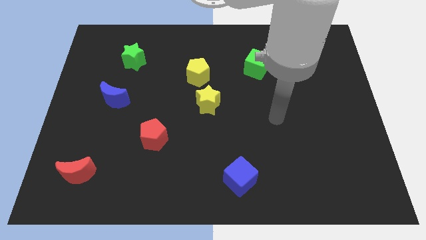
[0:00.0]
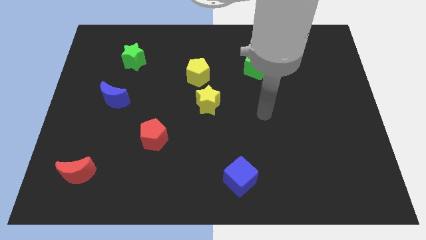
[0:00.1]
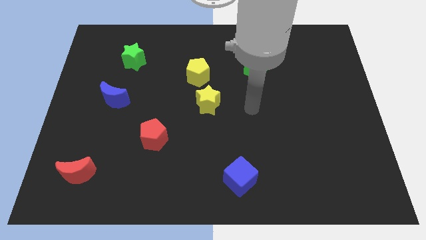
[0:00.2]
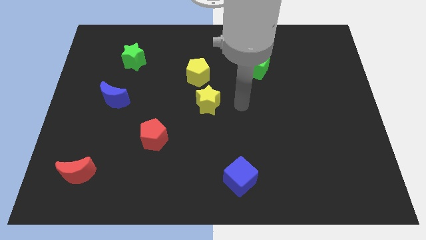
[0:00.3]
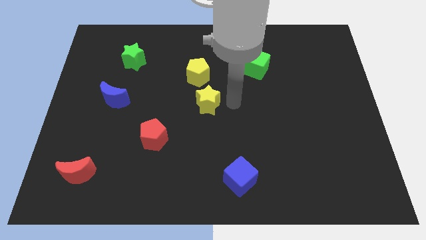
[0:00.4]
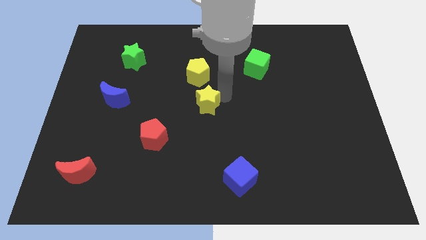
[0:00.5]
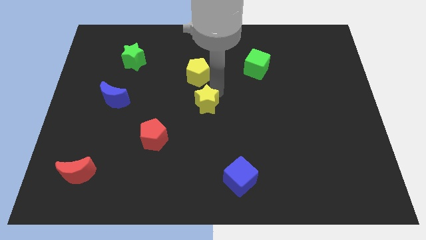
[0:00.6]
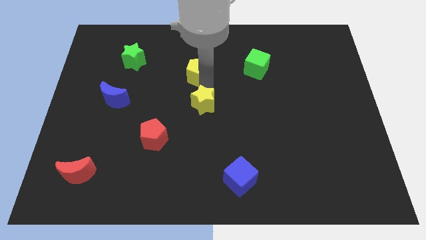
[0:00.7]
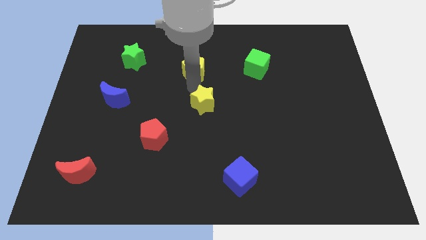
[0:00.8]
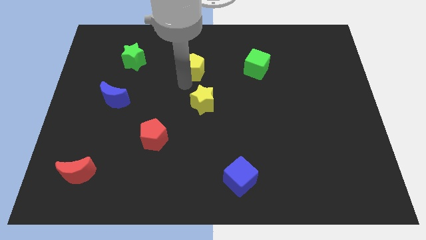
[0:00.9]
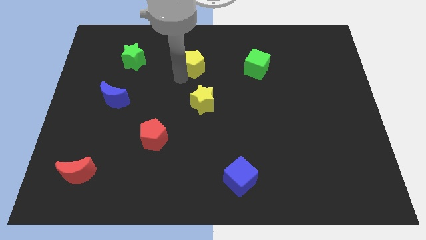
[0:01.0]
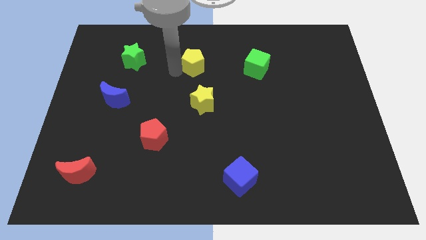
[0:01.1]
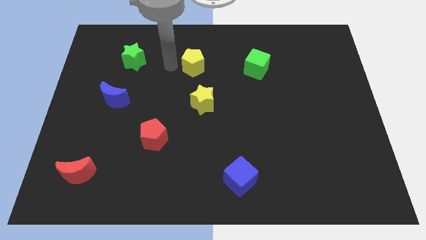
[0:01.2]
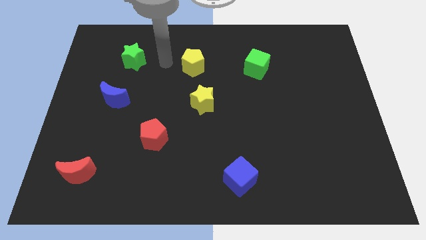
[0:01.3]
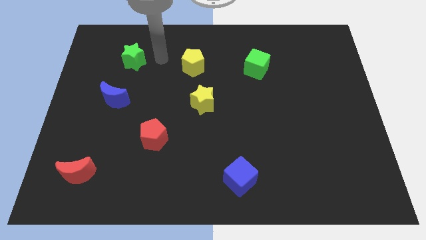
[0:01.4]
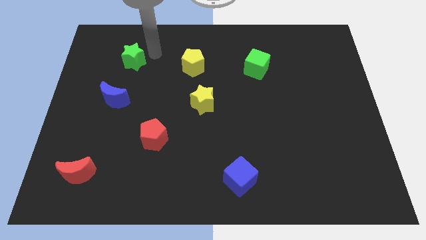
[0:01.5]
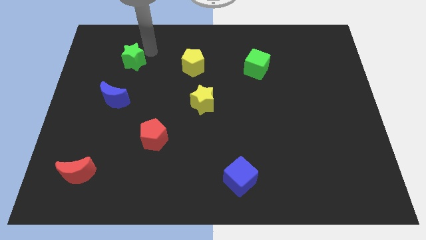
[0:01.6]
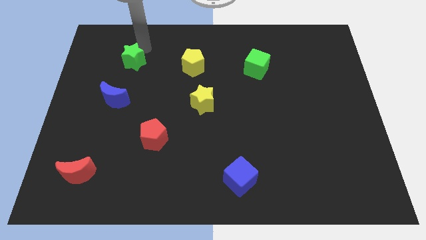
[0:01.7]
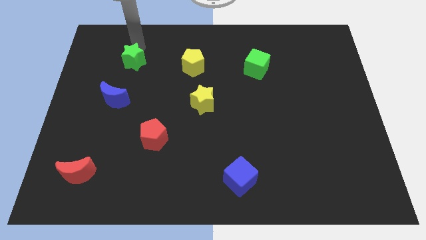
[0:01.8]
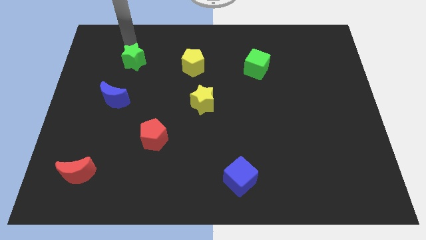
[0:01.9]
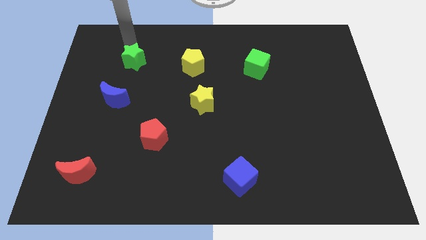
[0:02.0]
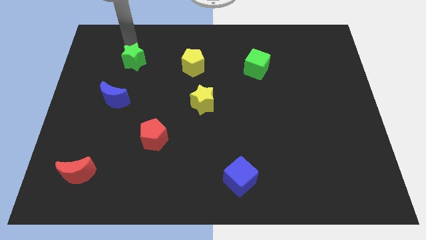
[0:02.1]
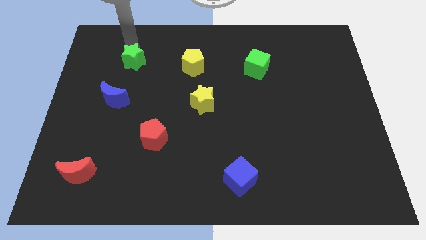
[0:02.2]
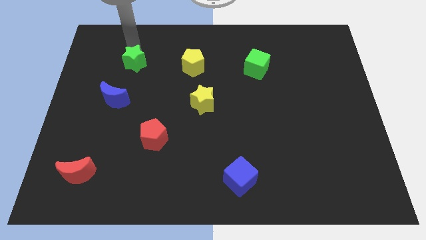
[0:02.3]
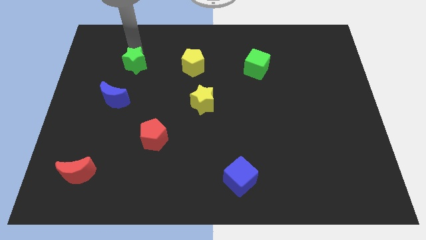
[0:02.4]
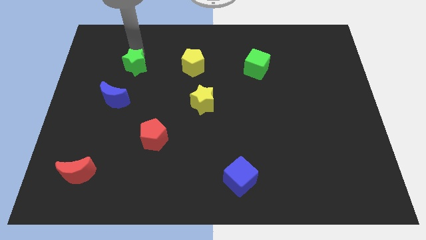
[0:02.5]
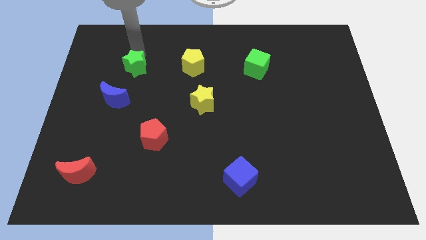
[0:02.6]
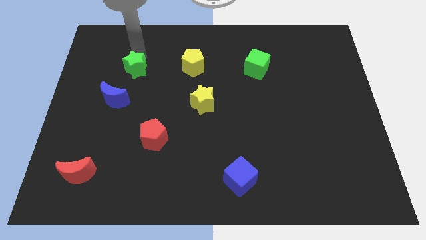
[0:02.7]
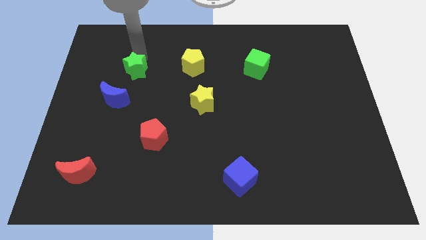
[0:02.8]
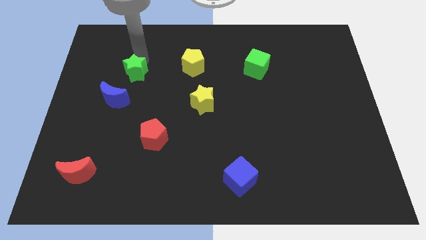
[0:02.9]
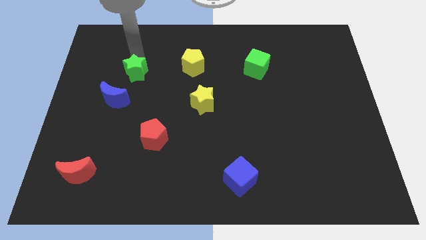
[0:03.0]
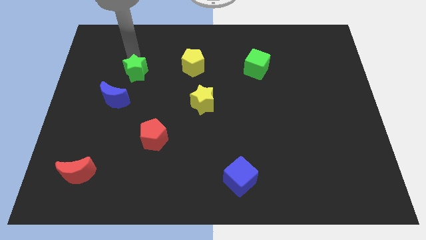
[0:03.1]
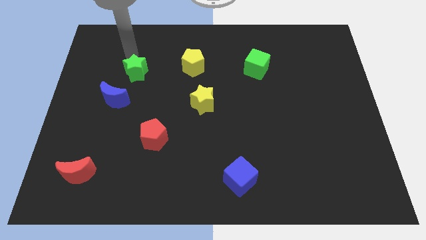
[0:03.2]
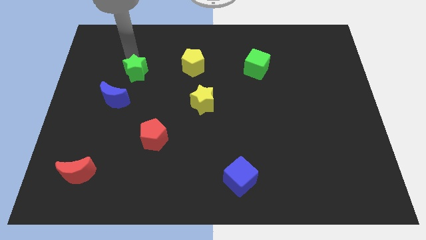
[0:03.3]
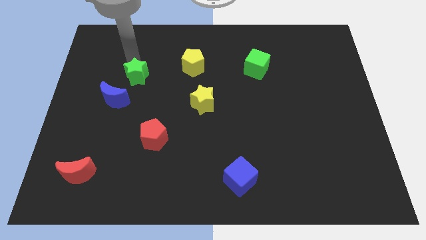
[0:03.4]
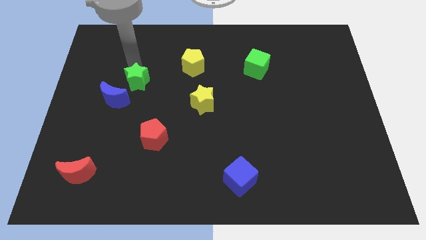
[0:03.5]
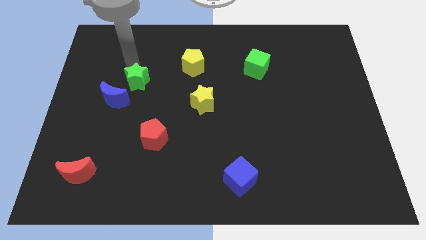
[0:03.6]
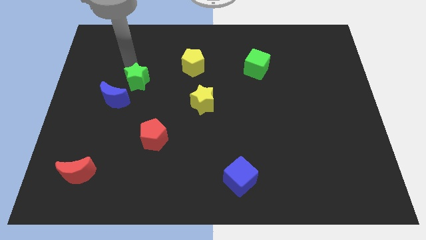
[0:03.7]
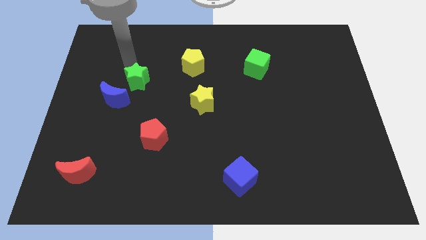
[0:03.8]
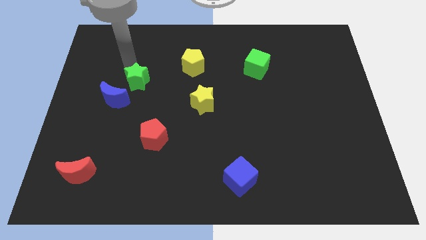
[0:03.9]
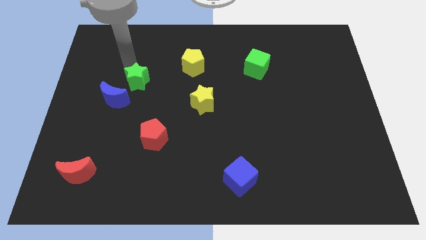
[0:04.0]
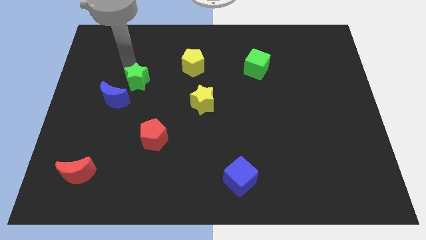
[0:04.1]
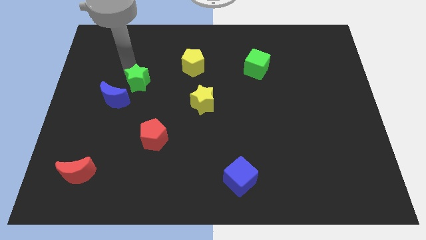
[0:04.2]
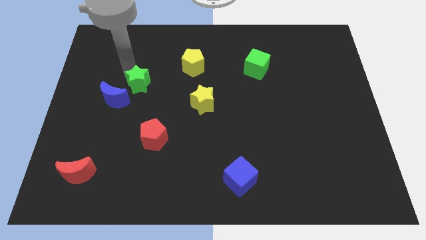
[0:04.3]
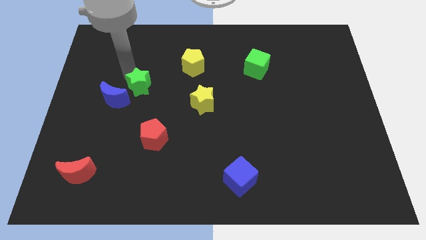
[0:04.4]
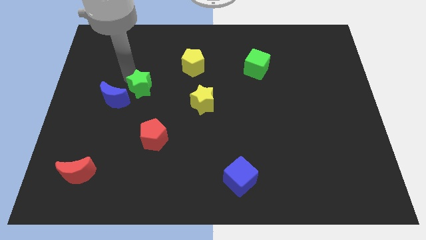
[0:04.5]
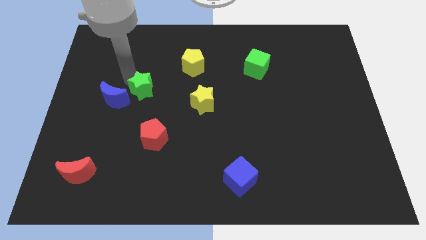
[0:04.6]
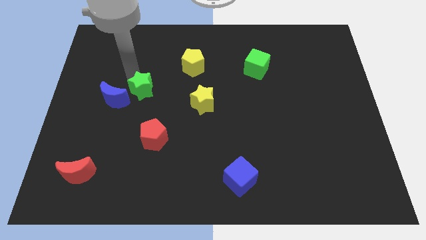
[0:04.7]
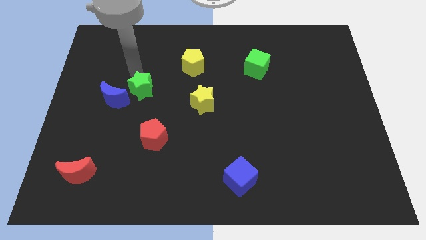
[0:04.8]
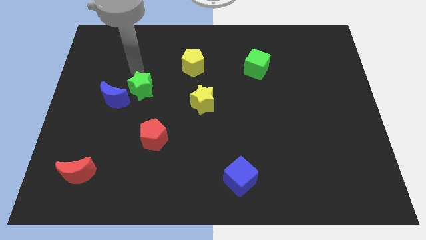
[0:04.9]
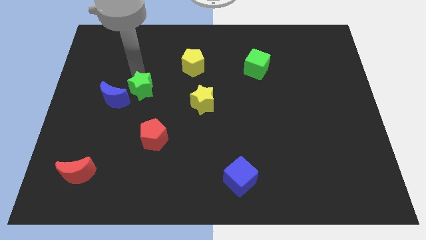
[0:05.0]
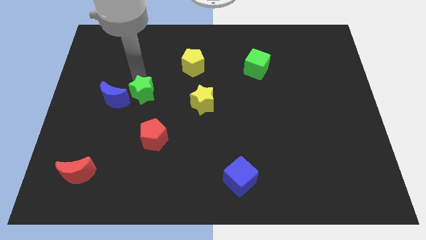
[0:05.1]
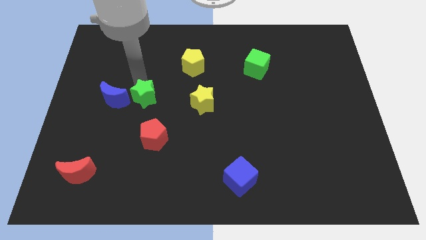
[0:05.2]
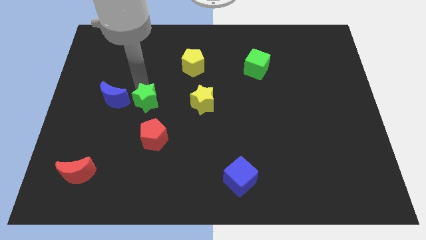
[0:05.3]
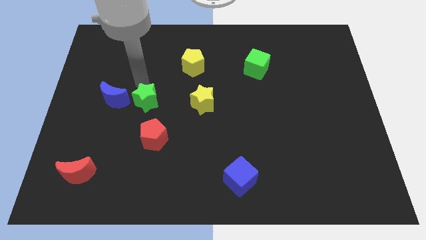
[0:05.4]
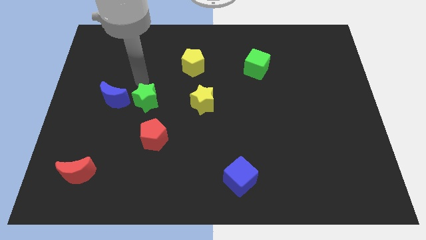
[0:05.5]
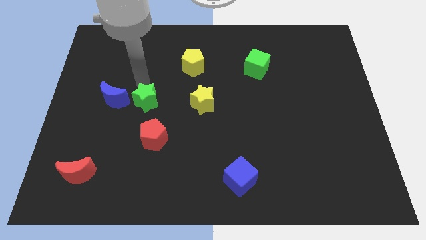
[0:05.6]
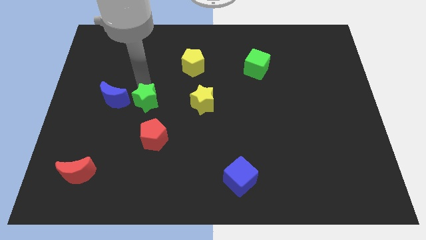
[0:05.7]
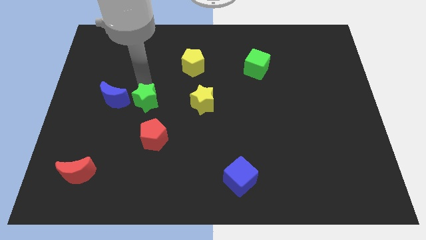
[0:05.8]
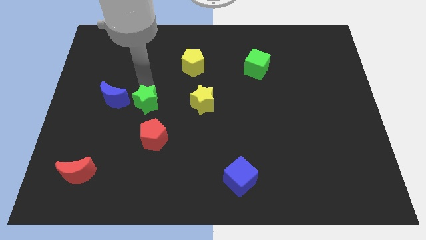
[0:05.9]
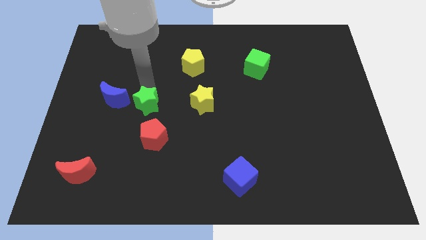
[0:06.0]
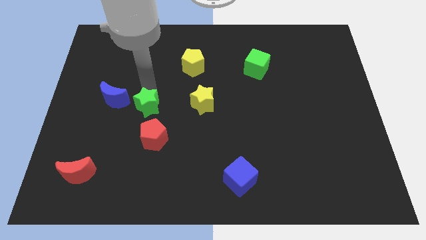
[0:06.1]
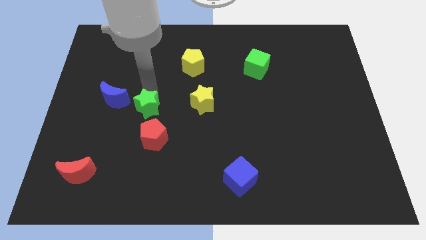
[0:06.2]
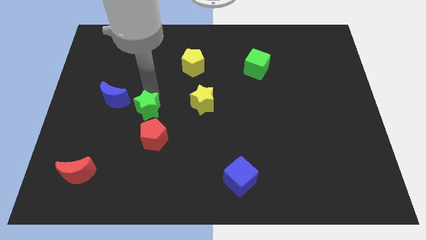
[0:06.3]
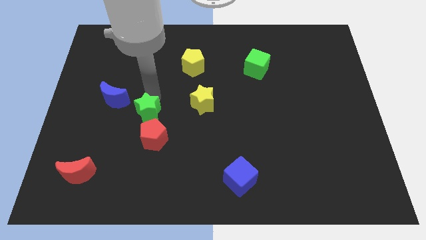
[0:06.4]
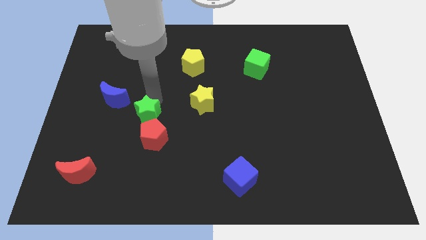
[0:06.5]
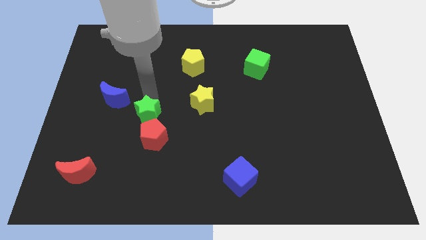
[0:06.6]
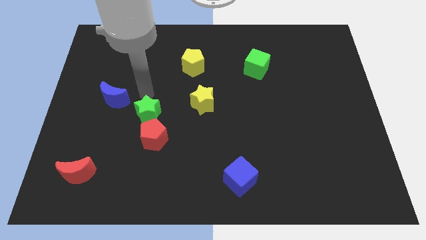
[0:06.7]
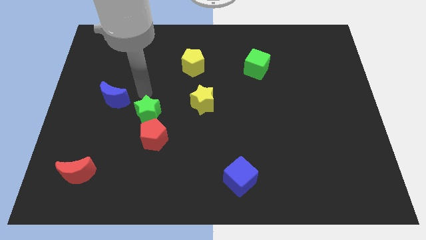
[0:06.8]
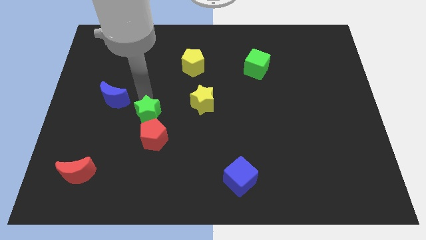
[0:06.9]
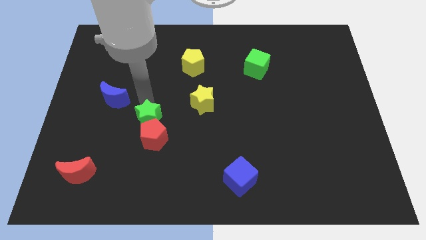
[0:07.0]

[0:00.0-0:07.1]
put the green star to the red pentagon
